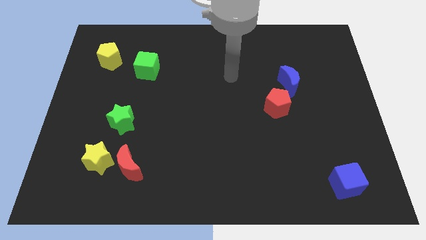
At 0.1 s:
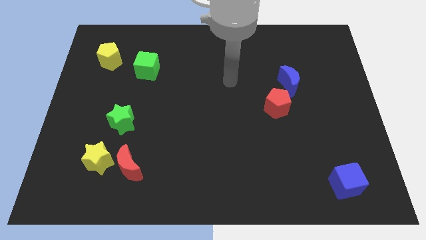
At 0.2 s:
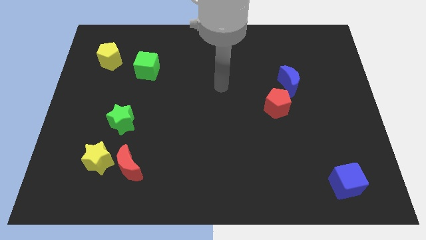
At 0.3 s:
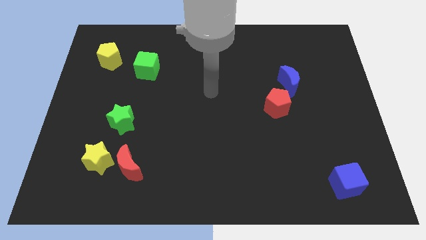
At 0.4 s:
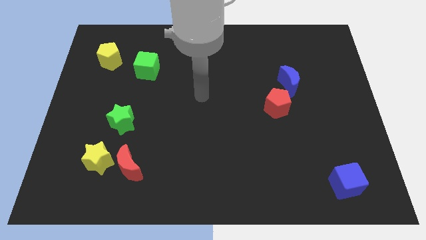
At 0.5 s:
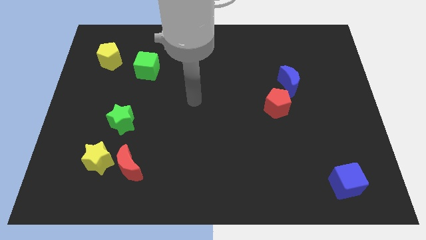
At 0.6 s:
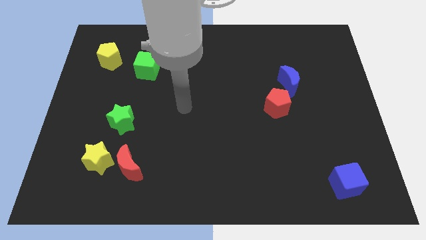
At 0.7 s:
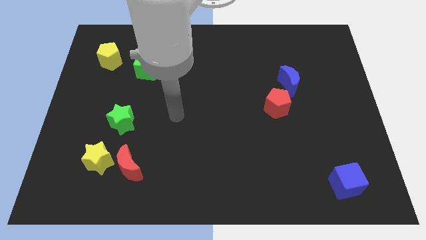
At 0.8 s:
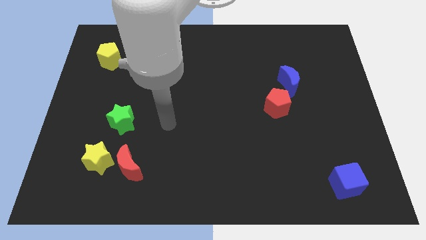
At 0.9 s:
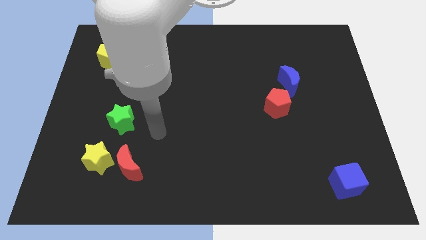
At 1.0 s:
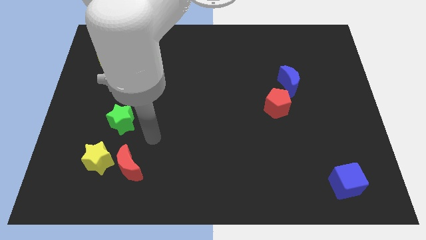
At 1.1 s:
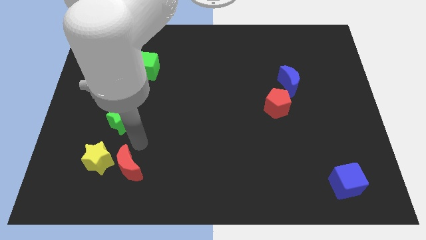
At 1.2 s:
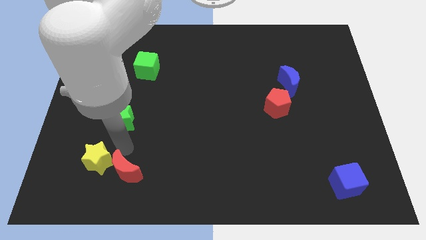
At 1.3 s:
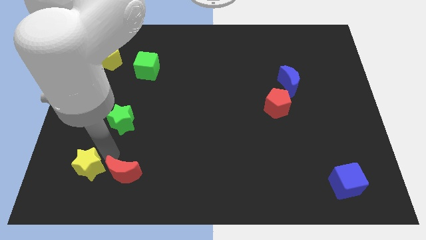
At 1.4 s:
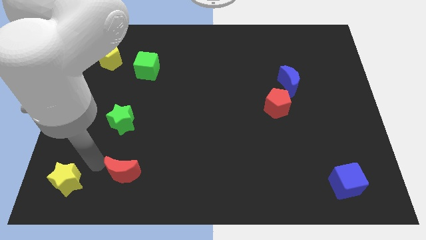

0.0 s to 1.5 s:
pull the red moon apart from the yellow star

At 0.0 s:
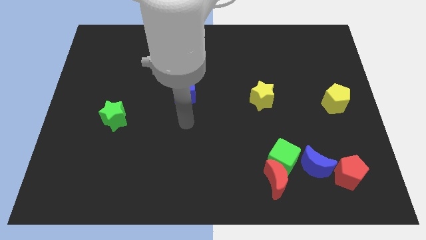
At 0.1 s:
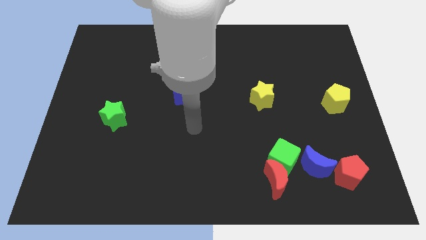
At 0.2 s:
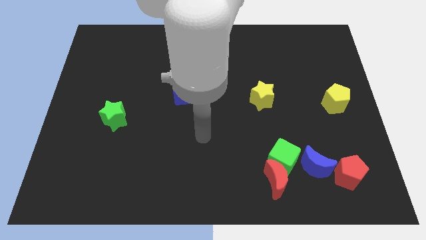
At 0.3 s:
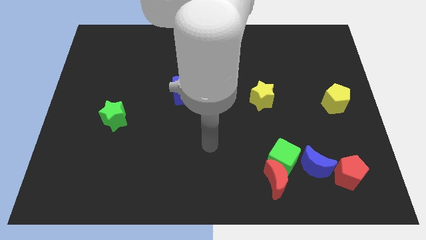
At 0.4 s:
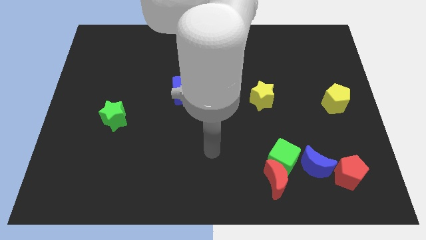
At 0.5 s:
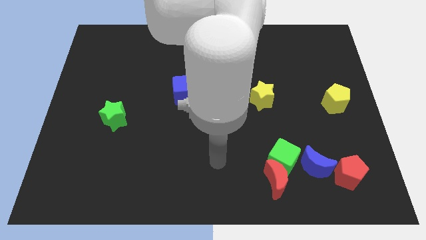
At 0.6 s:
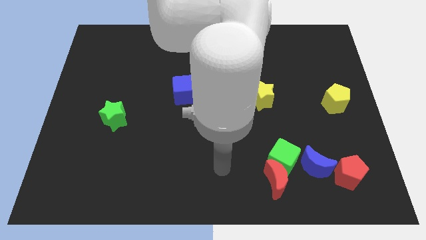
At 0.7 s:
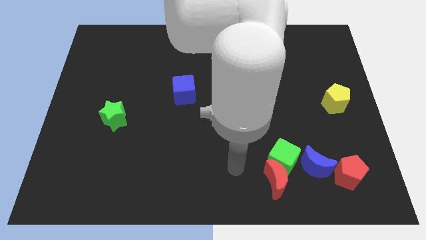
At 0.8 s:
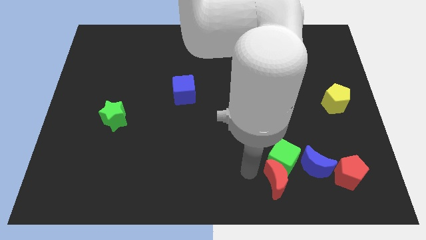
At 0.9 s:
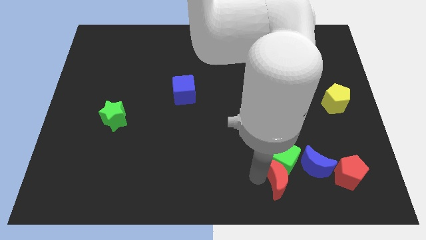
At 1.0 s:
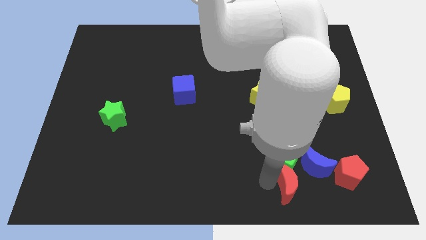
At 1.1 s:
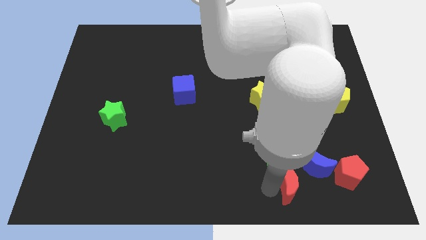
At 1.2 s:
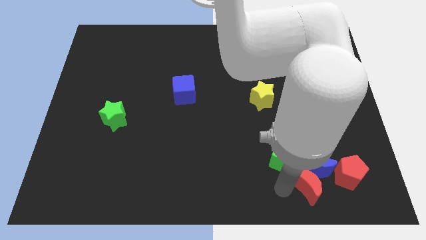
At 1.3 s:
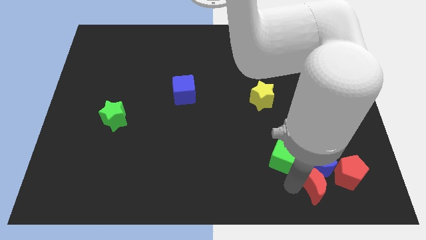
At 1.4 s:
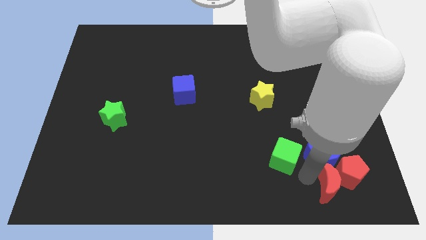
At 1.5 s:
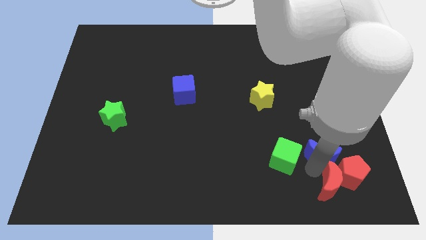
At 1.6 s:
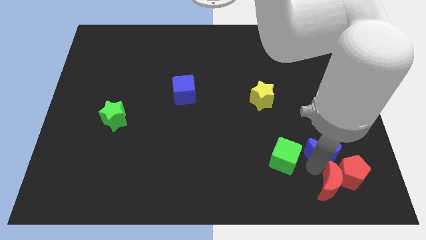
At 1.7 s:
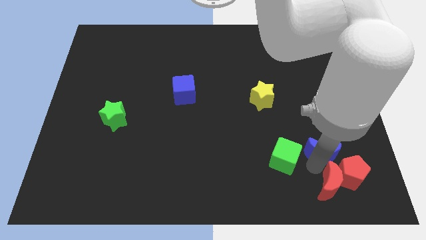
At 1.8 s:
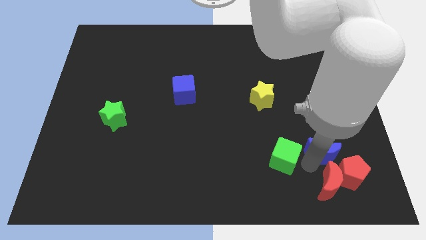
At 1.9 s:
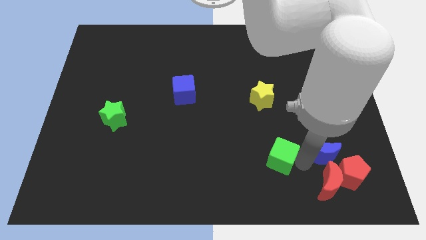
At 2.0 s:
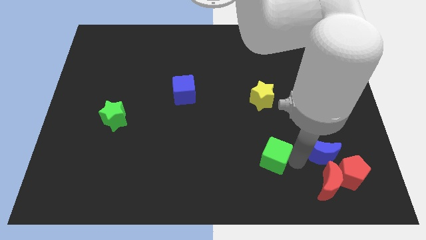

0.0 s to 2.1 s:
separate the green cube from the red moon and blue moon

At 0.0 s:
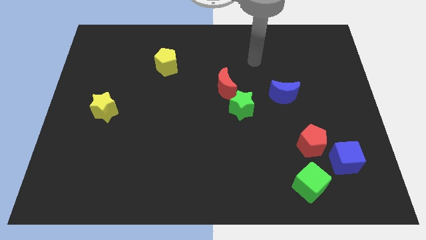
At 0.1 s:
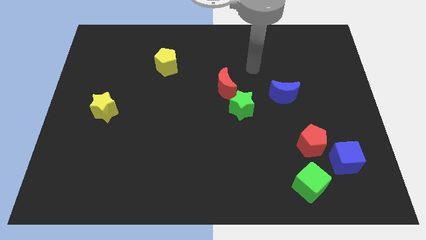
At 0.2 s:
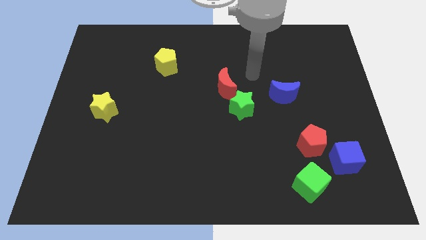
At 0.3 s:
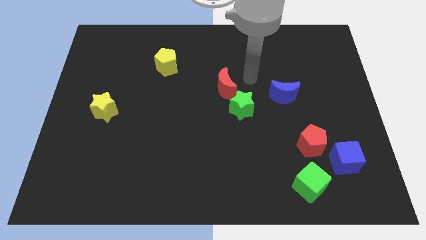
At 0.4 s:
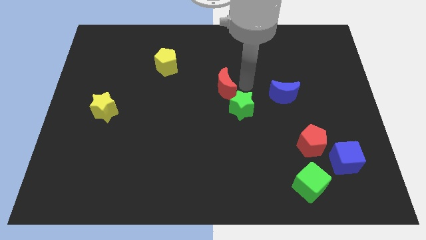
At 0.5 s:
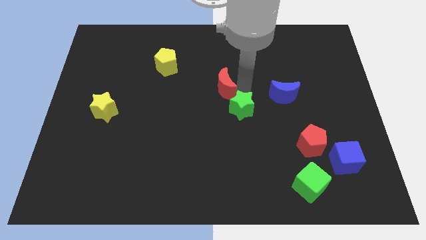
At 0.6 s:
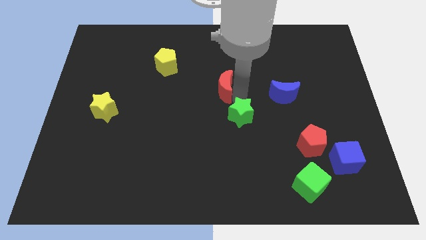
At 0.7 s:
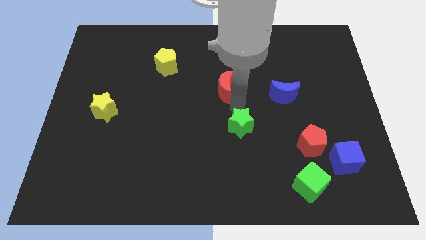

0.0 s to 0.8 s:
pull the red moon apart from the green star

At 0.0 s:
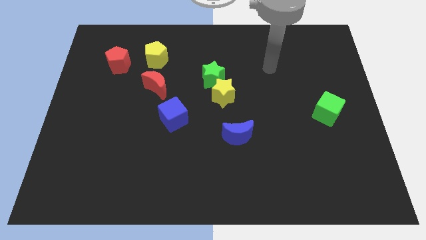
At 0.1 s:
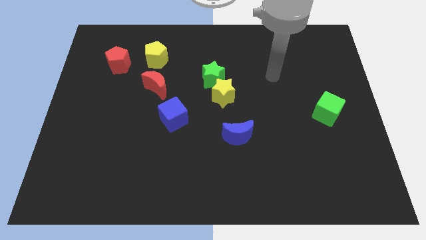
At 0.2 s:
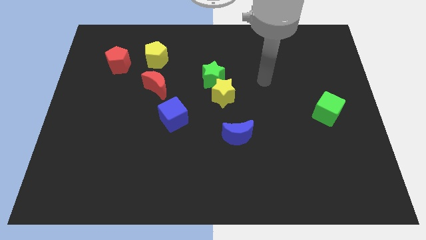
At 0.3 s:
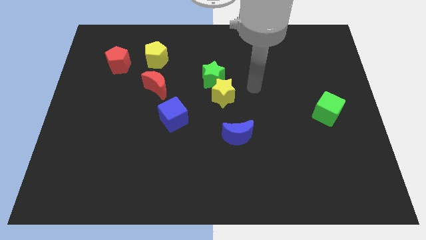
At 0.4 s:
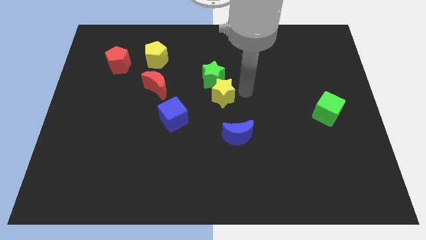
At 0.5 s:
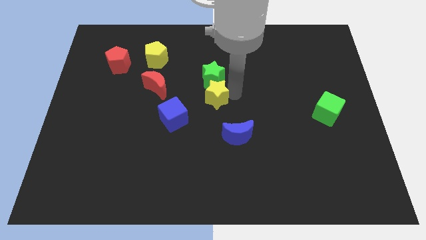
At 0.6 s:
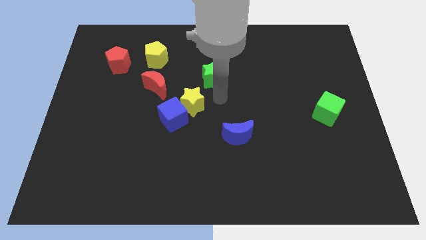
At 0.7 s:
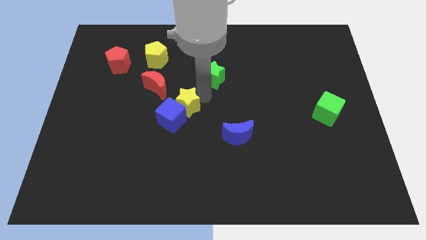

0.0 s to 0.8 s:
move the green star away from the yellow star

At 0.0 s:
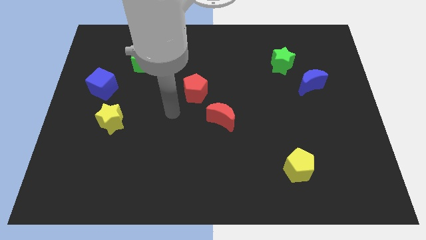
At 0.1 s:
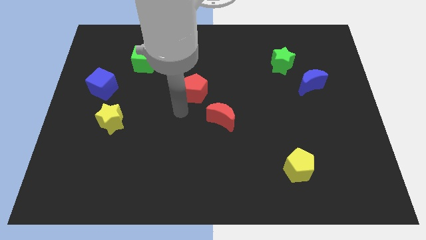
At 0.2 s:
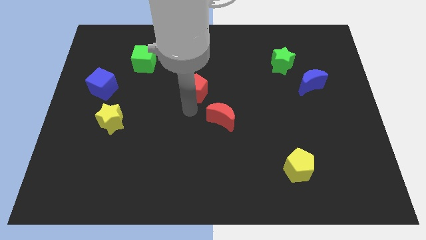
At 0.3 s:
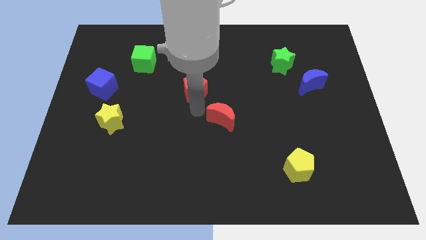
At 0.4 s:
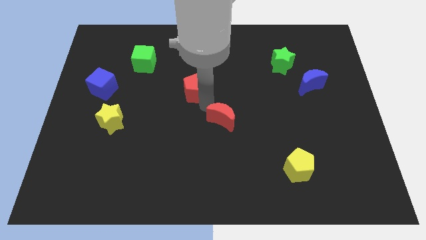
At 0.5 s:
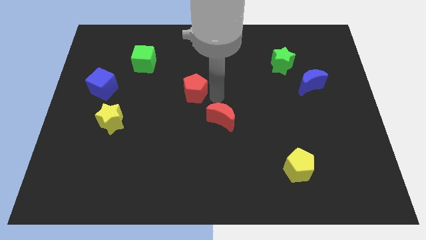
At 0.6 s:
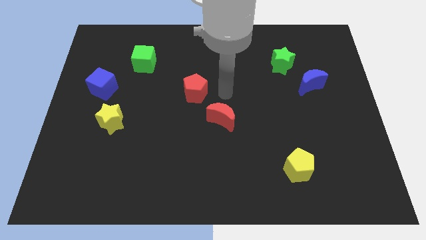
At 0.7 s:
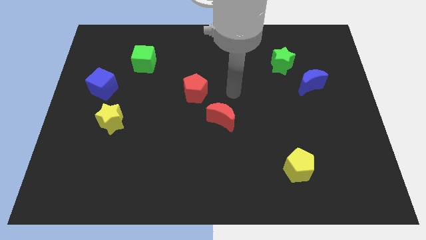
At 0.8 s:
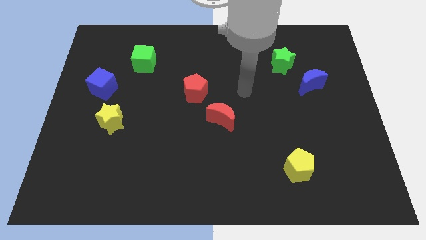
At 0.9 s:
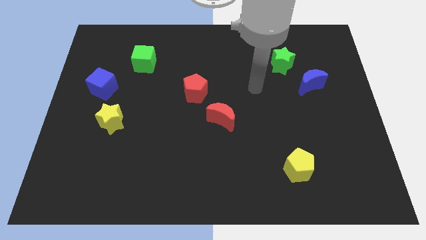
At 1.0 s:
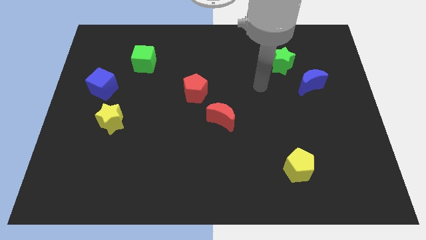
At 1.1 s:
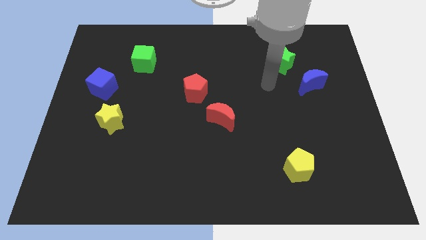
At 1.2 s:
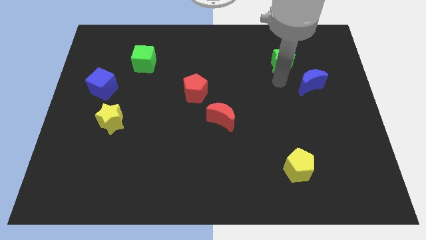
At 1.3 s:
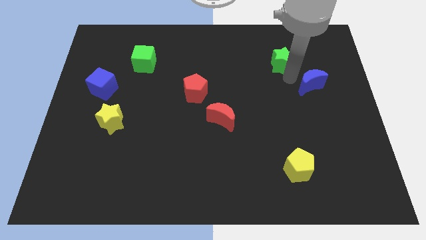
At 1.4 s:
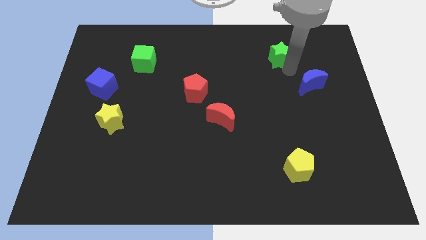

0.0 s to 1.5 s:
separate the blue moon from the green star

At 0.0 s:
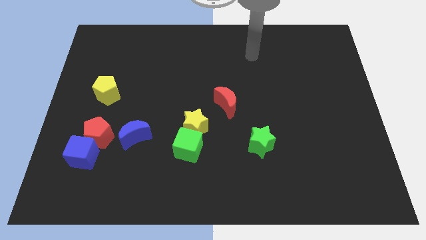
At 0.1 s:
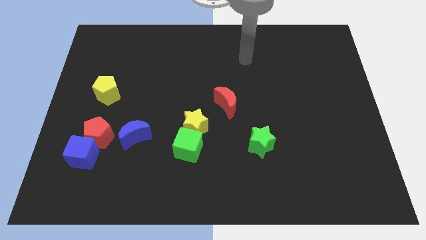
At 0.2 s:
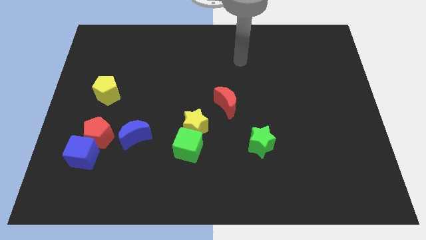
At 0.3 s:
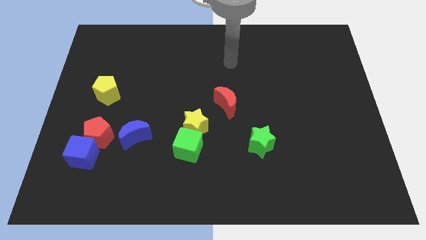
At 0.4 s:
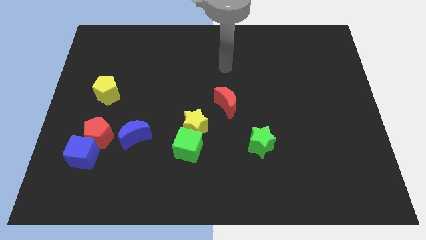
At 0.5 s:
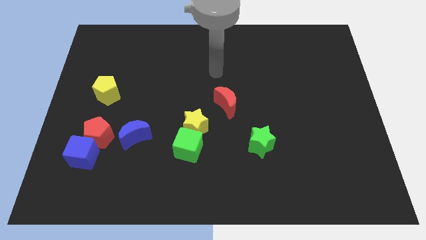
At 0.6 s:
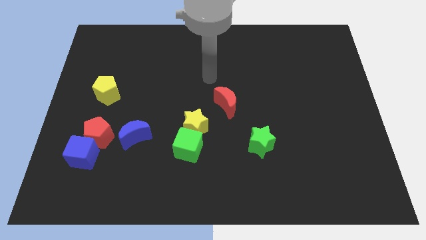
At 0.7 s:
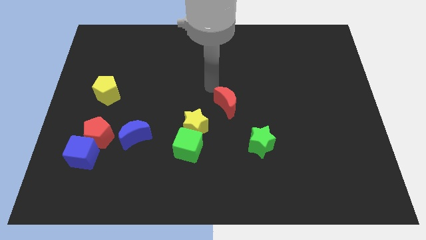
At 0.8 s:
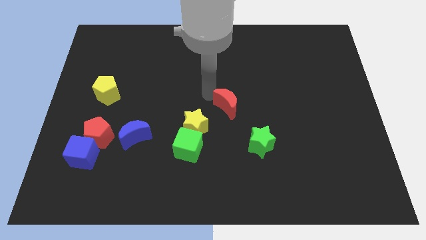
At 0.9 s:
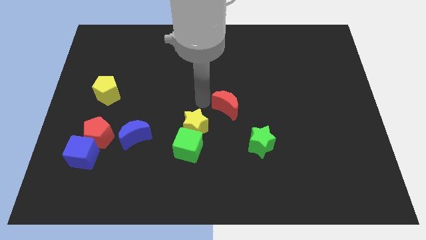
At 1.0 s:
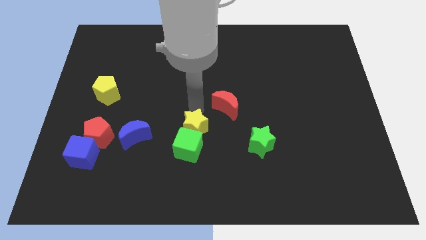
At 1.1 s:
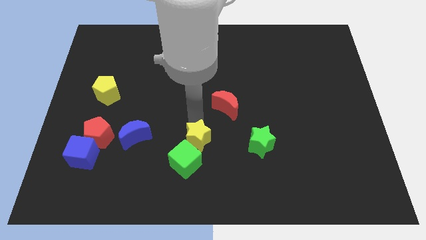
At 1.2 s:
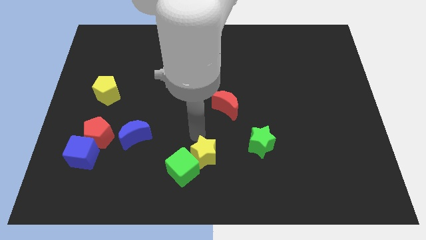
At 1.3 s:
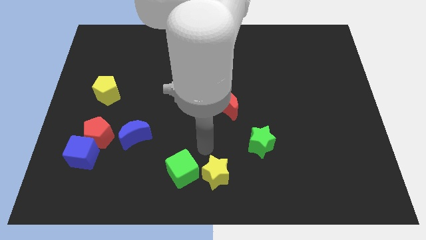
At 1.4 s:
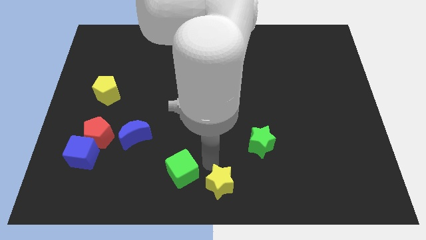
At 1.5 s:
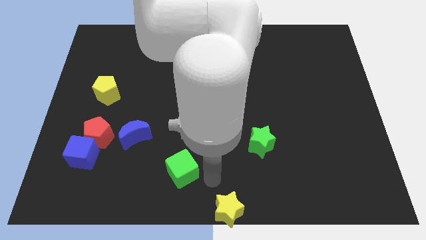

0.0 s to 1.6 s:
separate the green cube from the yellow star

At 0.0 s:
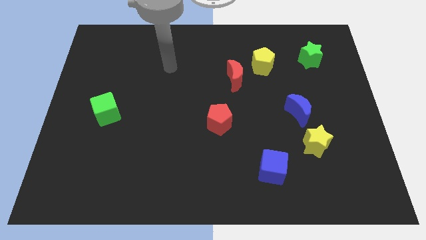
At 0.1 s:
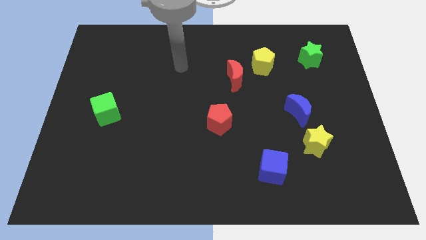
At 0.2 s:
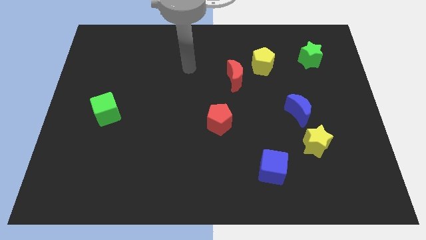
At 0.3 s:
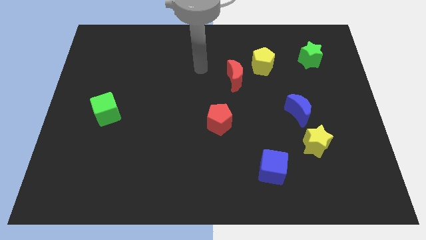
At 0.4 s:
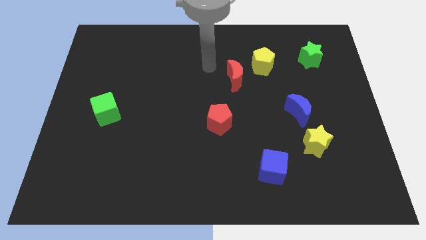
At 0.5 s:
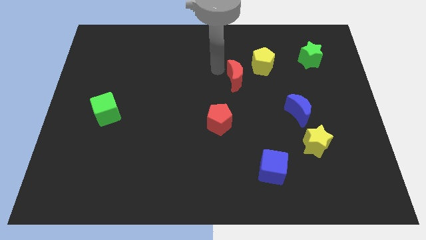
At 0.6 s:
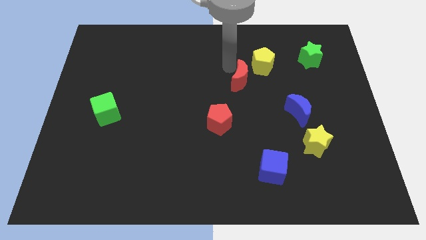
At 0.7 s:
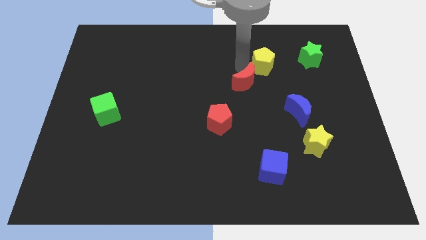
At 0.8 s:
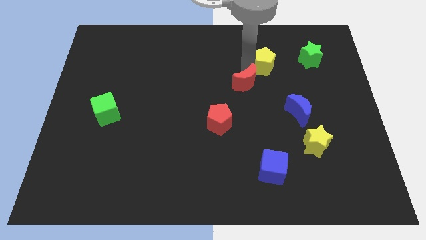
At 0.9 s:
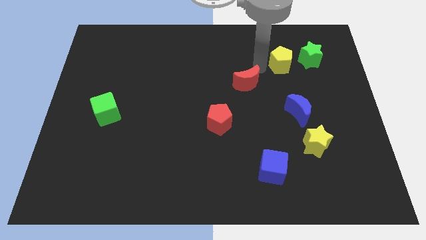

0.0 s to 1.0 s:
pull the red moon apart from the yellow pentagon
